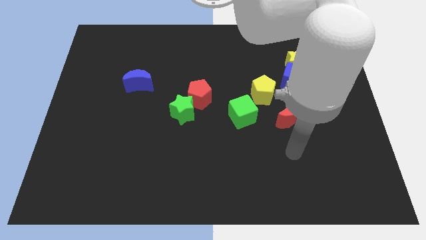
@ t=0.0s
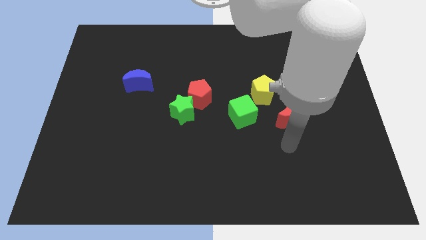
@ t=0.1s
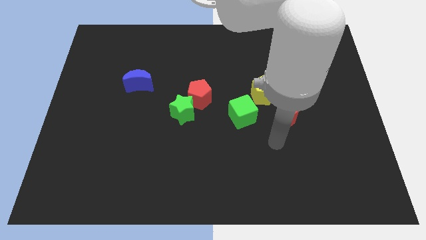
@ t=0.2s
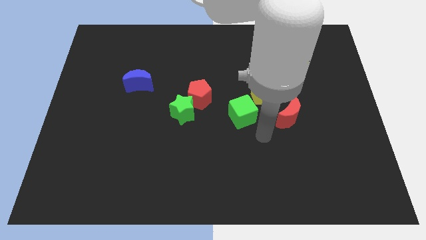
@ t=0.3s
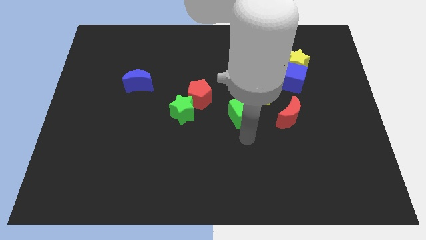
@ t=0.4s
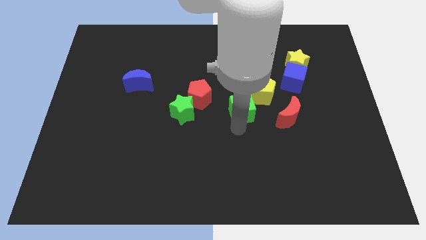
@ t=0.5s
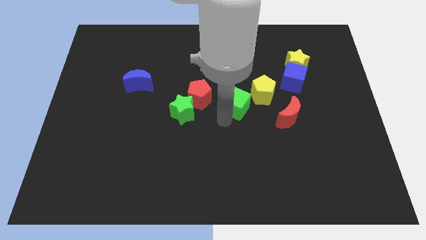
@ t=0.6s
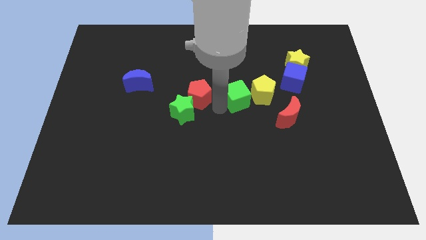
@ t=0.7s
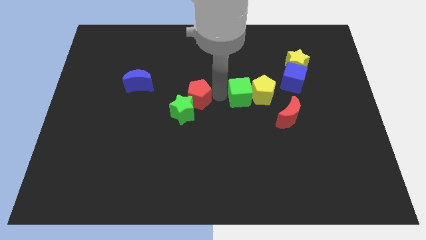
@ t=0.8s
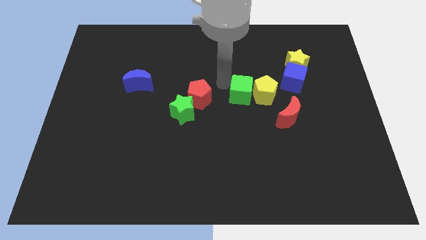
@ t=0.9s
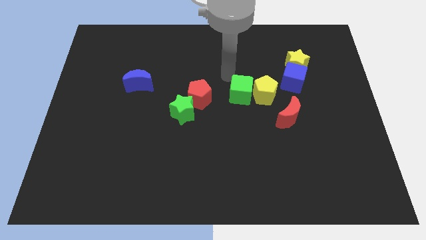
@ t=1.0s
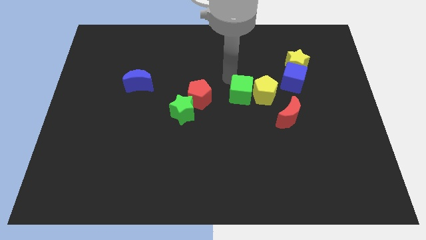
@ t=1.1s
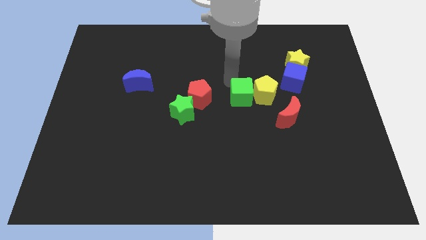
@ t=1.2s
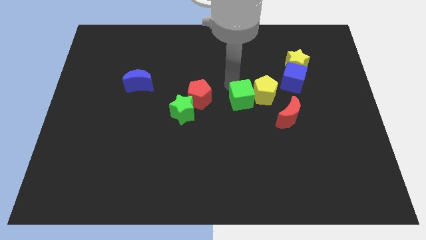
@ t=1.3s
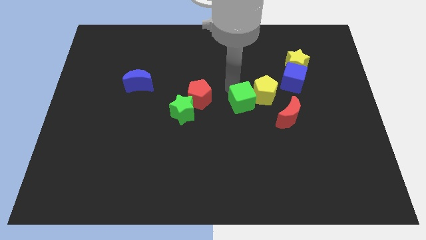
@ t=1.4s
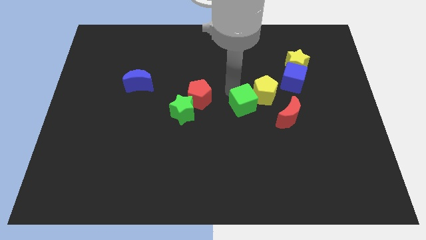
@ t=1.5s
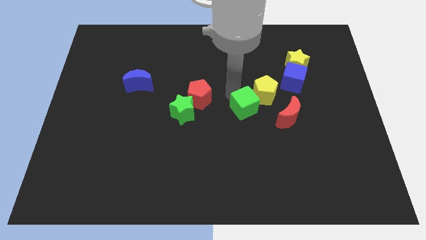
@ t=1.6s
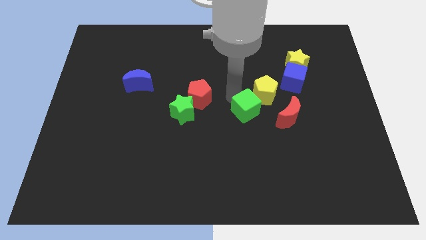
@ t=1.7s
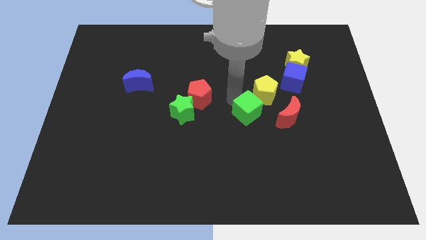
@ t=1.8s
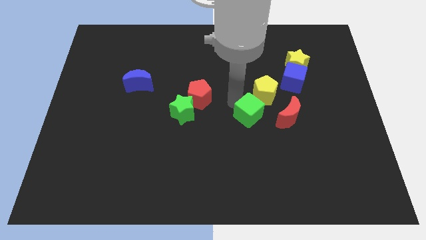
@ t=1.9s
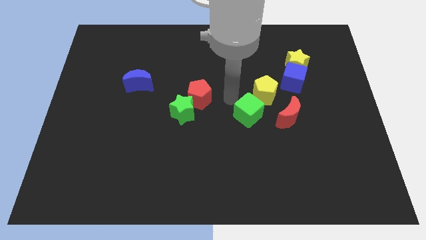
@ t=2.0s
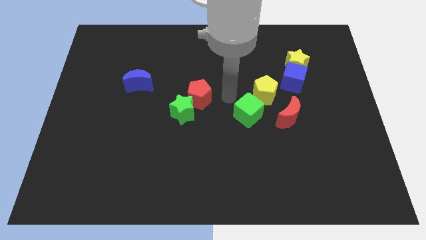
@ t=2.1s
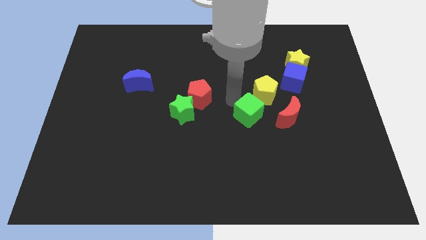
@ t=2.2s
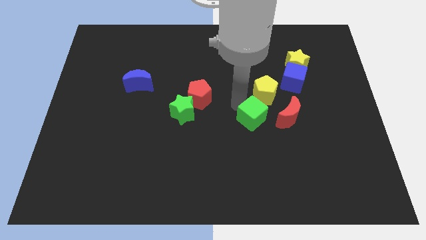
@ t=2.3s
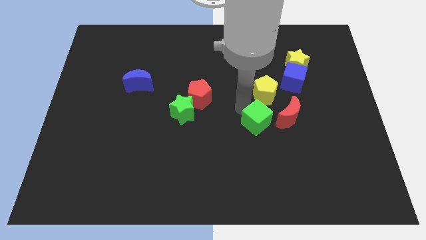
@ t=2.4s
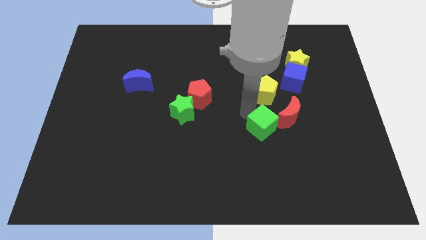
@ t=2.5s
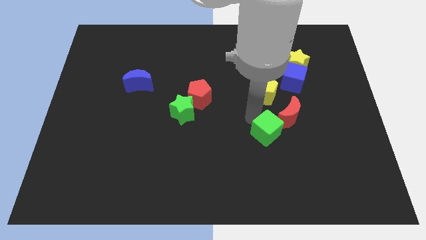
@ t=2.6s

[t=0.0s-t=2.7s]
push the green cube a little downwards and right

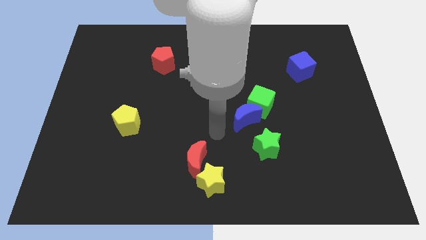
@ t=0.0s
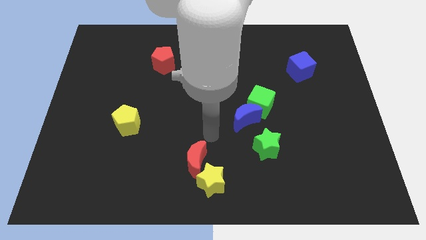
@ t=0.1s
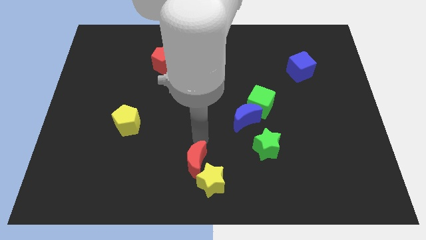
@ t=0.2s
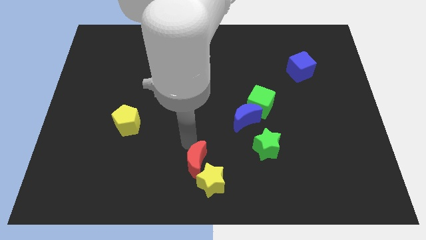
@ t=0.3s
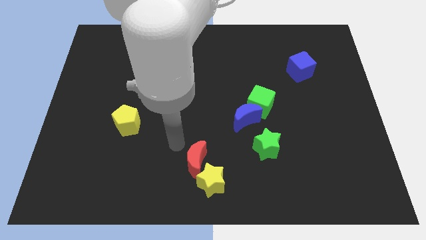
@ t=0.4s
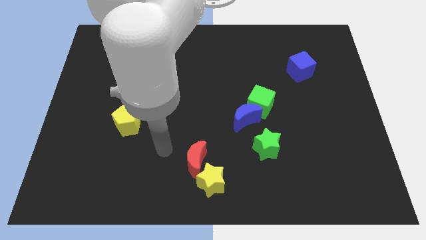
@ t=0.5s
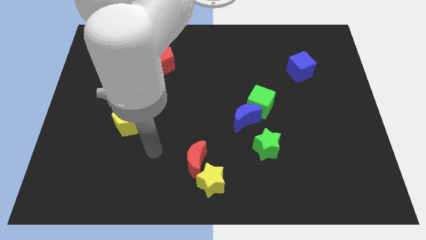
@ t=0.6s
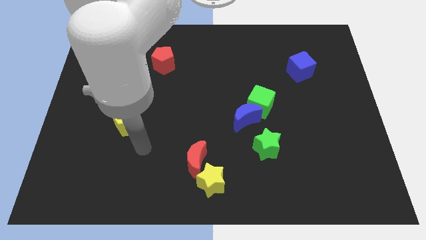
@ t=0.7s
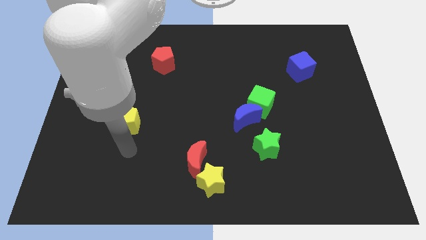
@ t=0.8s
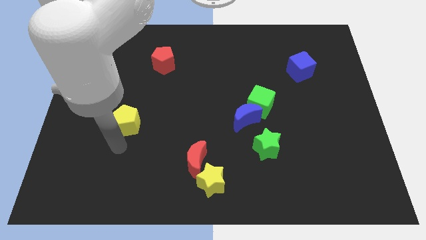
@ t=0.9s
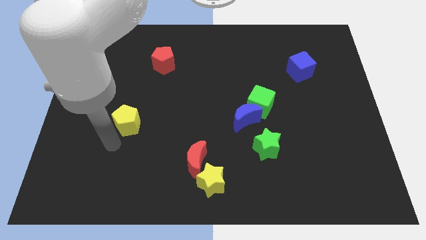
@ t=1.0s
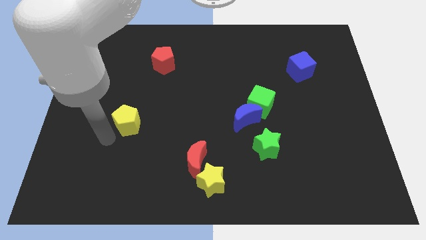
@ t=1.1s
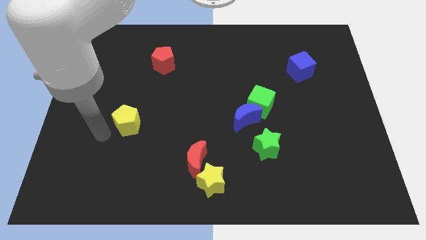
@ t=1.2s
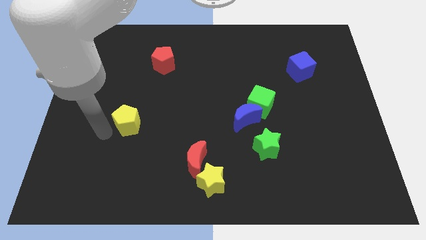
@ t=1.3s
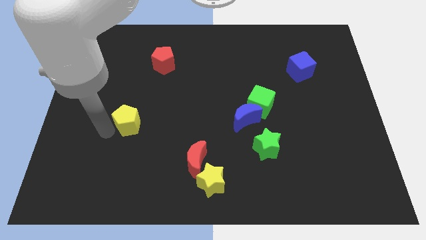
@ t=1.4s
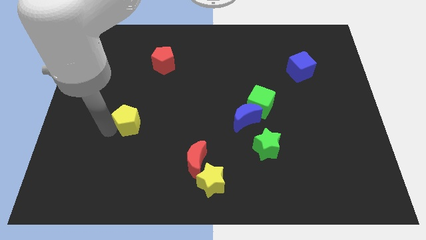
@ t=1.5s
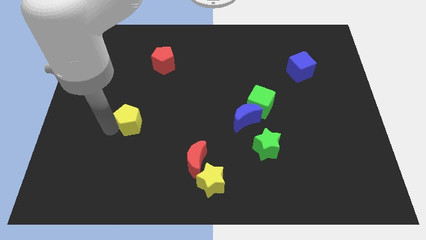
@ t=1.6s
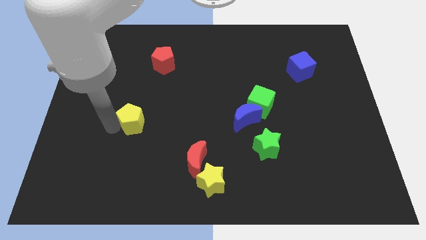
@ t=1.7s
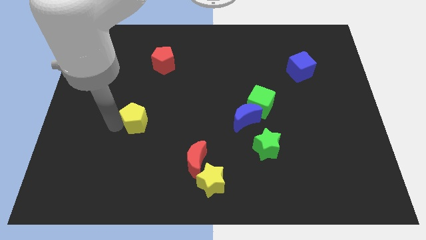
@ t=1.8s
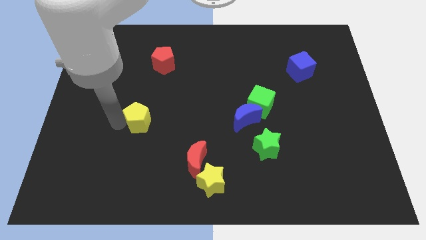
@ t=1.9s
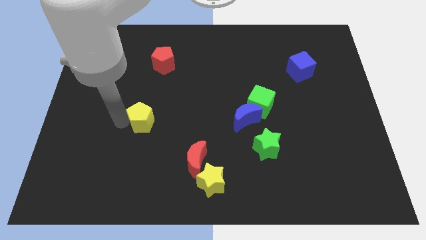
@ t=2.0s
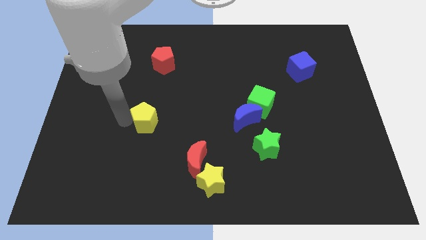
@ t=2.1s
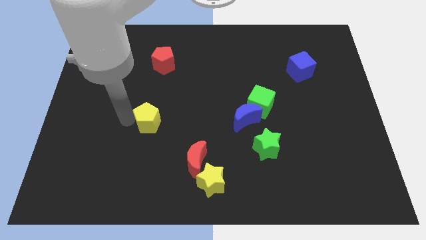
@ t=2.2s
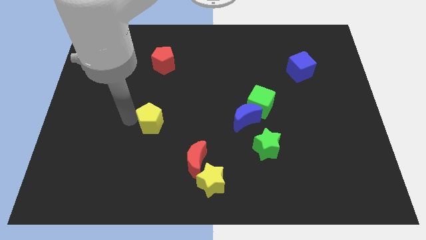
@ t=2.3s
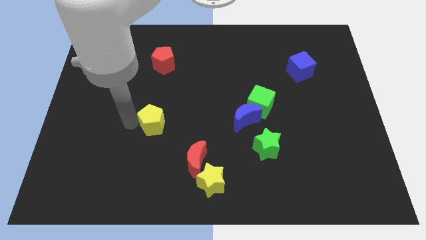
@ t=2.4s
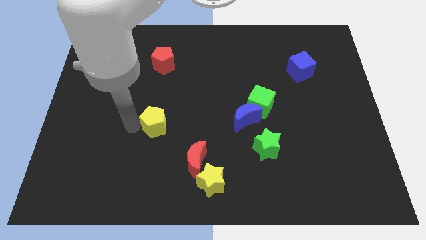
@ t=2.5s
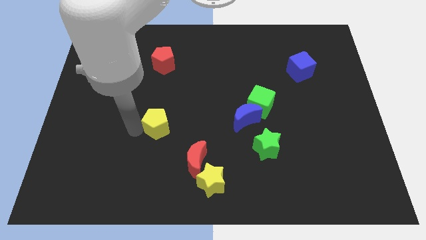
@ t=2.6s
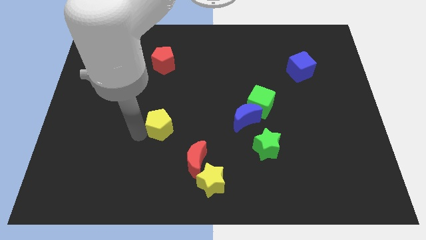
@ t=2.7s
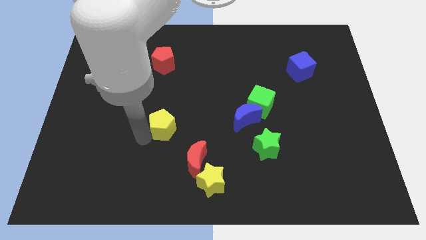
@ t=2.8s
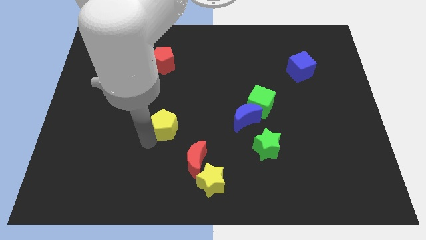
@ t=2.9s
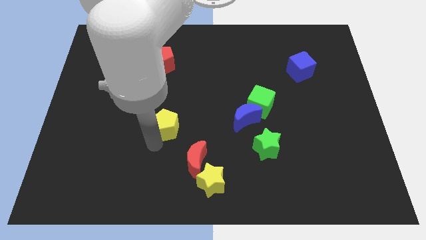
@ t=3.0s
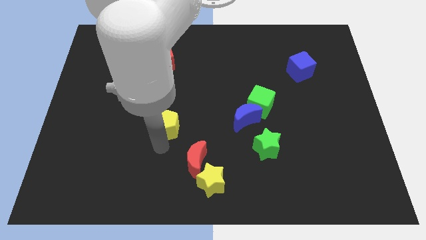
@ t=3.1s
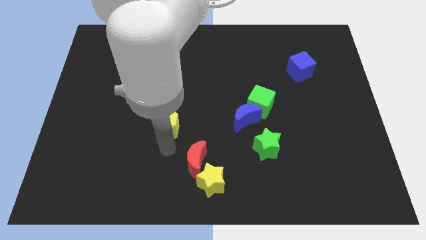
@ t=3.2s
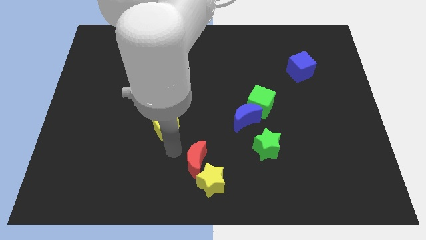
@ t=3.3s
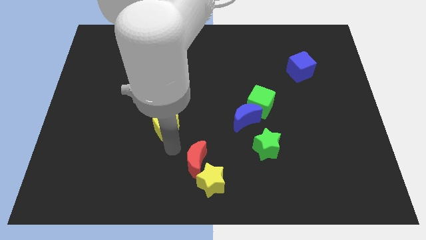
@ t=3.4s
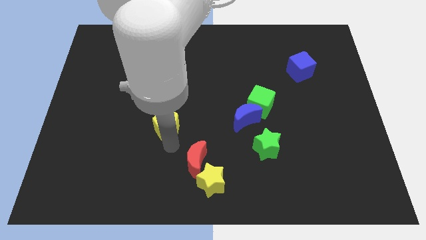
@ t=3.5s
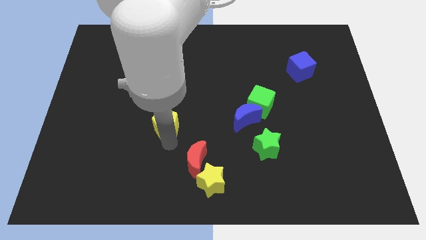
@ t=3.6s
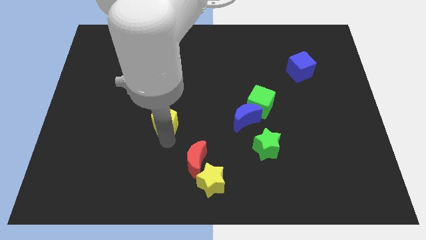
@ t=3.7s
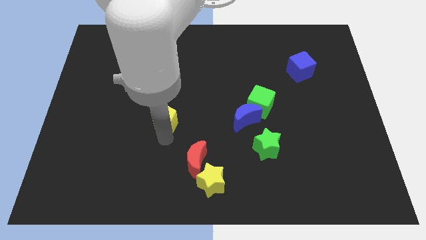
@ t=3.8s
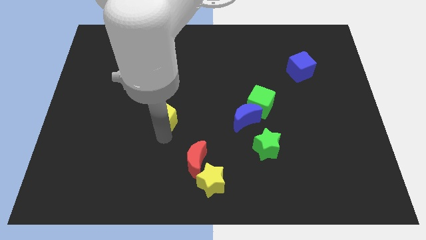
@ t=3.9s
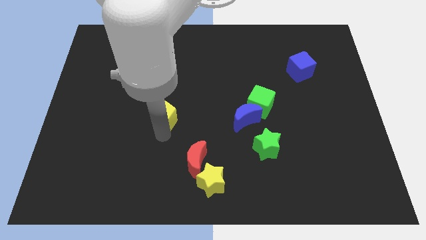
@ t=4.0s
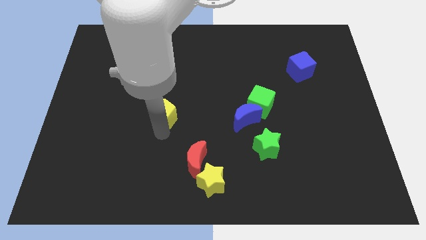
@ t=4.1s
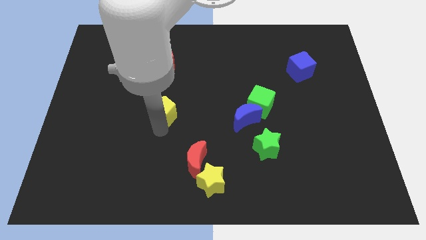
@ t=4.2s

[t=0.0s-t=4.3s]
push the yellow pentagon somewhat up and right

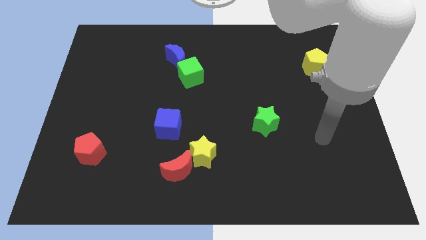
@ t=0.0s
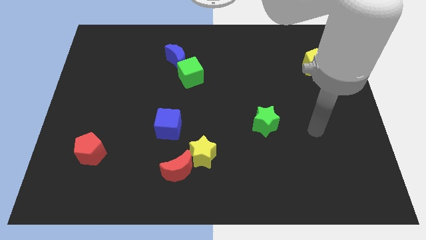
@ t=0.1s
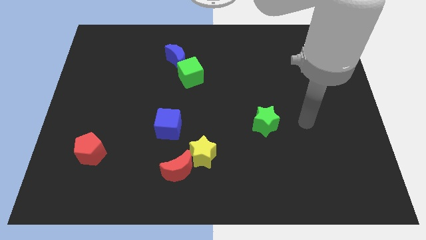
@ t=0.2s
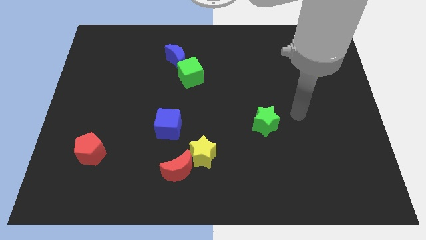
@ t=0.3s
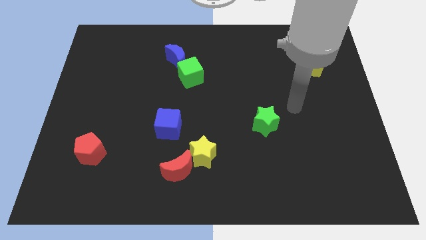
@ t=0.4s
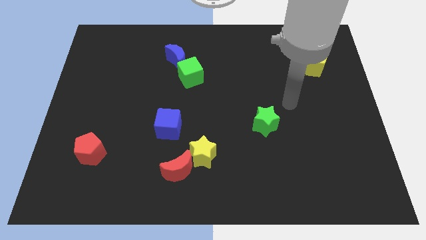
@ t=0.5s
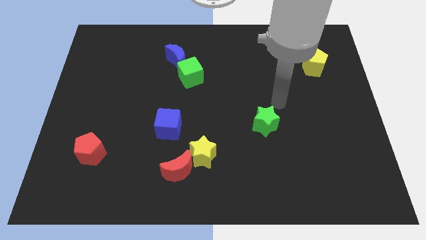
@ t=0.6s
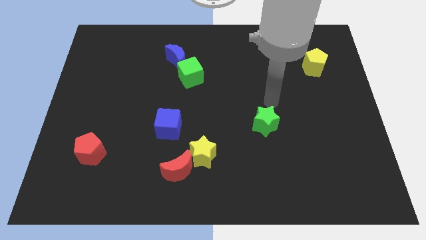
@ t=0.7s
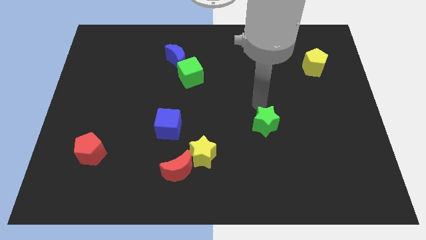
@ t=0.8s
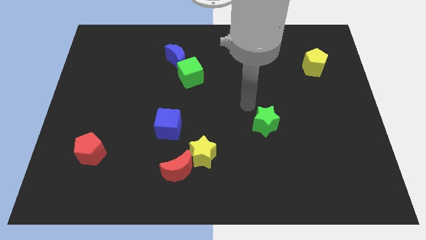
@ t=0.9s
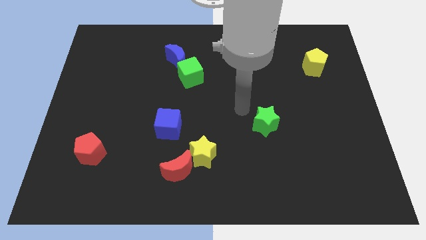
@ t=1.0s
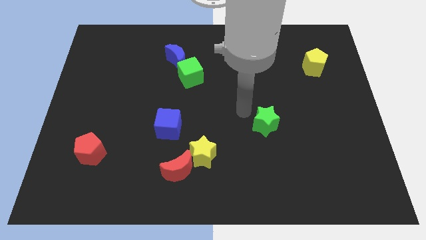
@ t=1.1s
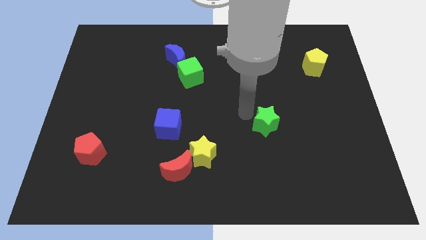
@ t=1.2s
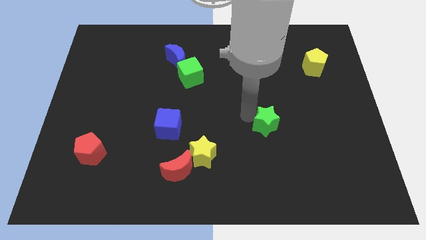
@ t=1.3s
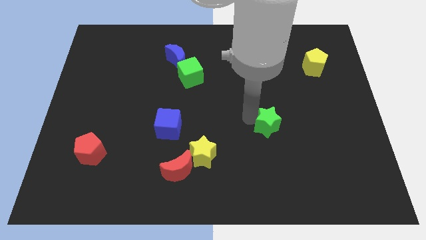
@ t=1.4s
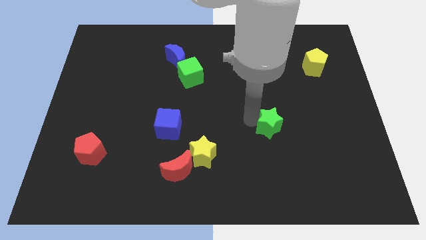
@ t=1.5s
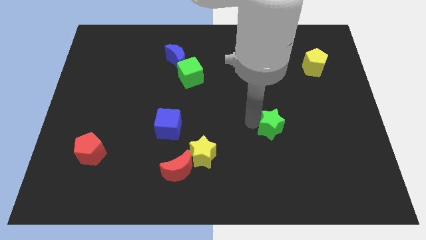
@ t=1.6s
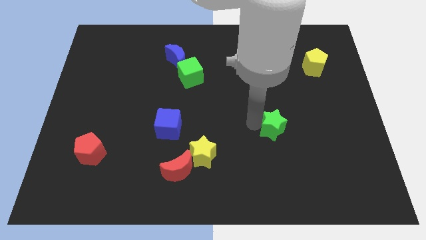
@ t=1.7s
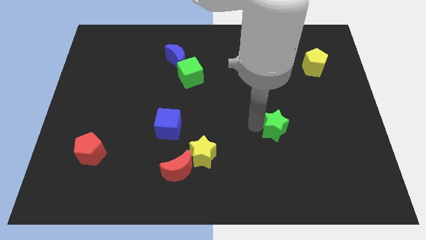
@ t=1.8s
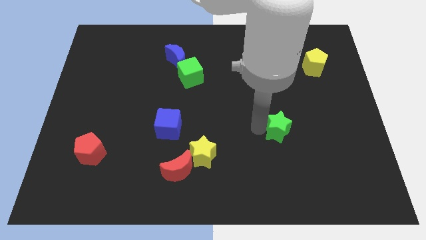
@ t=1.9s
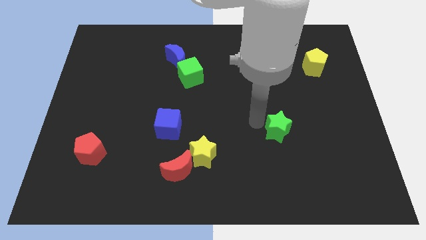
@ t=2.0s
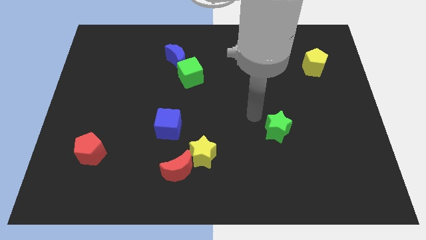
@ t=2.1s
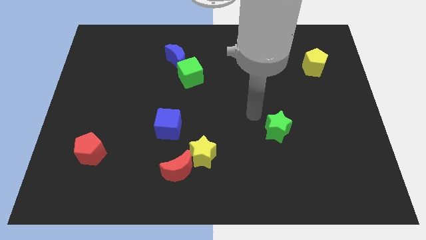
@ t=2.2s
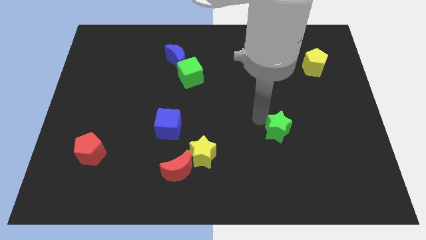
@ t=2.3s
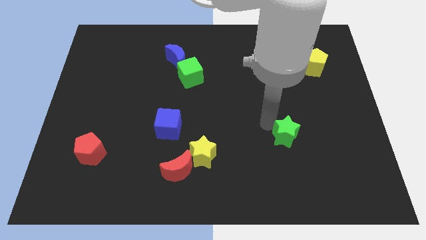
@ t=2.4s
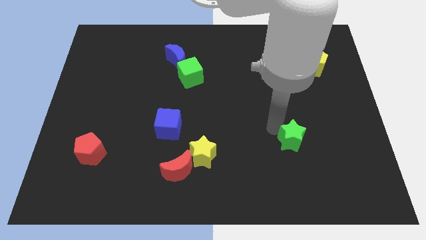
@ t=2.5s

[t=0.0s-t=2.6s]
slightly move the green star down and to the right
